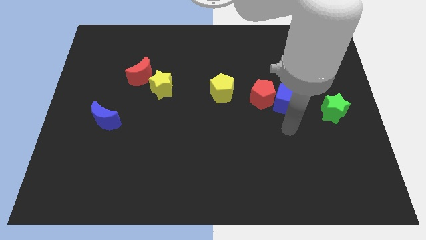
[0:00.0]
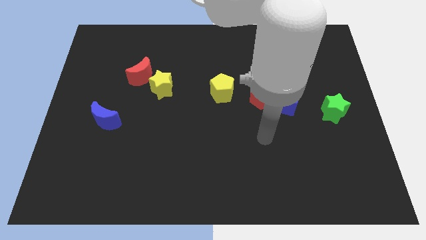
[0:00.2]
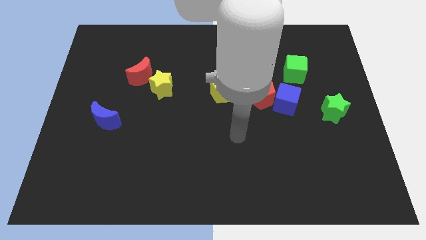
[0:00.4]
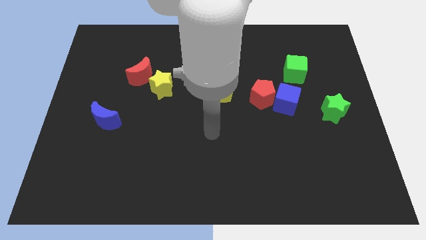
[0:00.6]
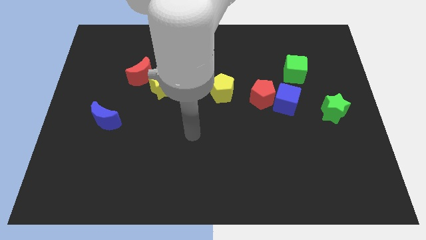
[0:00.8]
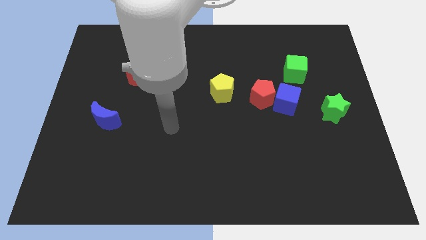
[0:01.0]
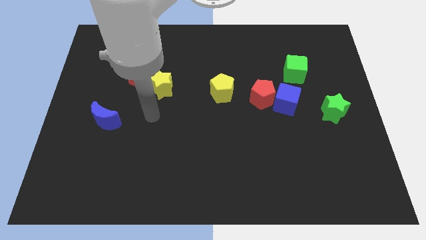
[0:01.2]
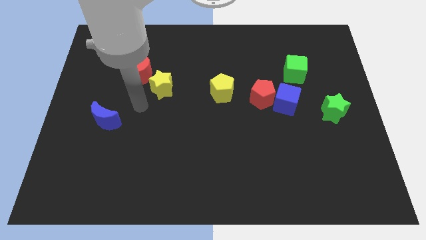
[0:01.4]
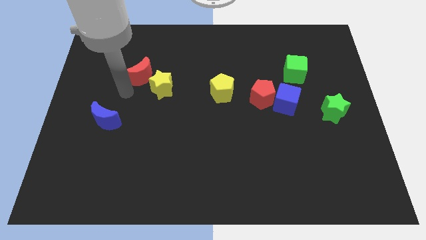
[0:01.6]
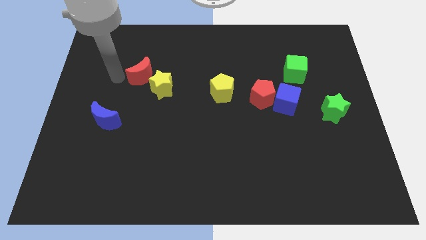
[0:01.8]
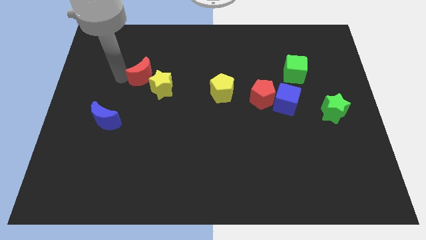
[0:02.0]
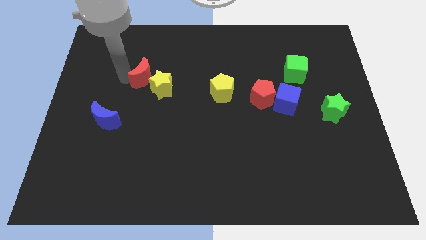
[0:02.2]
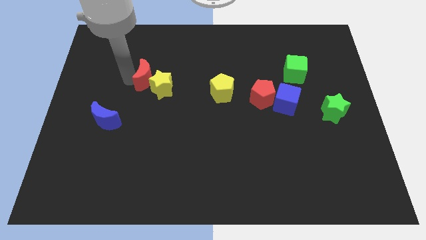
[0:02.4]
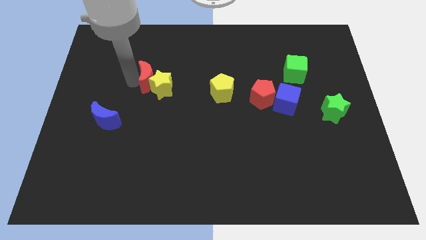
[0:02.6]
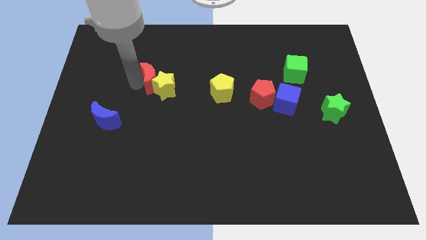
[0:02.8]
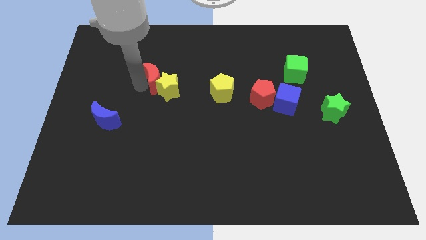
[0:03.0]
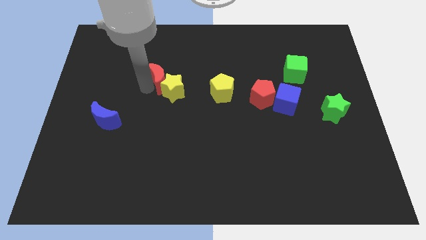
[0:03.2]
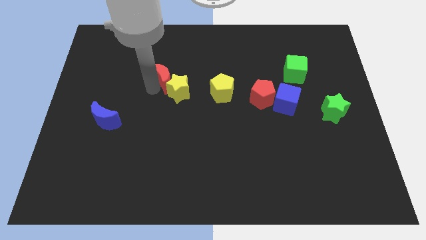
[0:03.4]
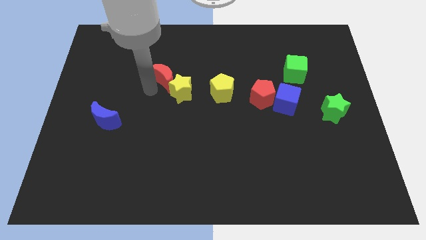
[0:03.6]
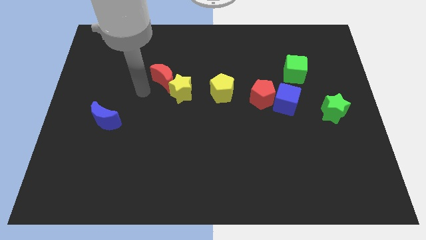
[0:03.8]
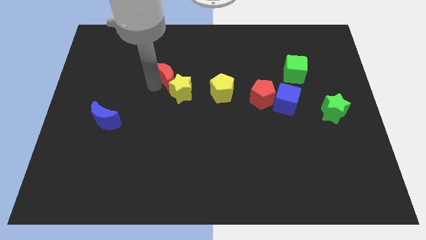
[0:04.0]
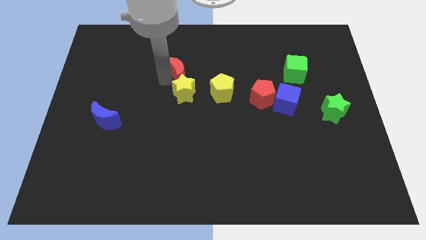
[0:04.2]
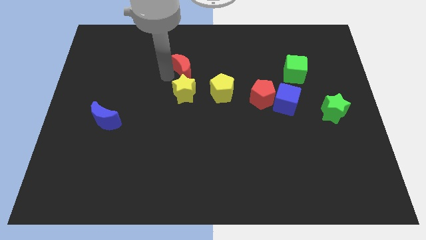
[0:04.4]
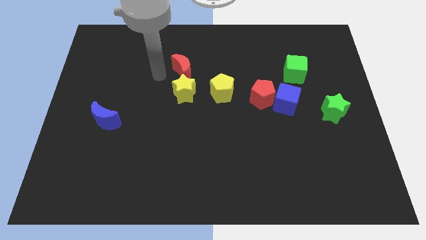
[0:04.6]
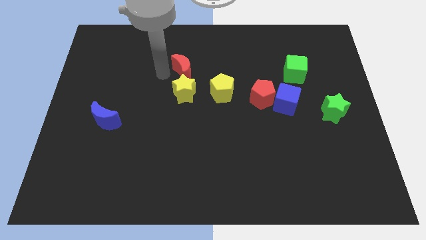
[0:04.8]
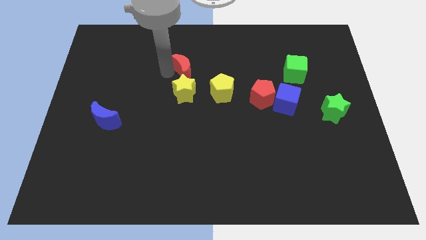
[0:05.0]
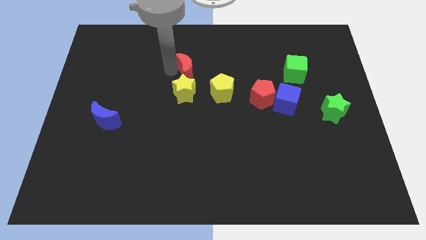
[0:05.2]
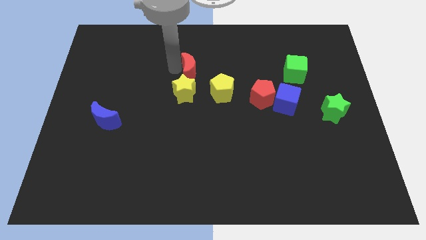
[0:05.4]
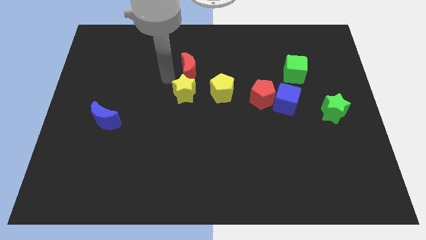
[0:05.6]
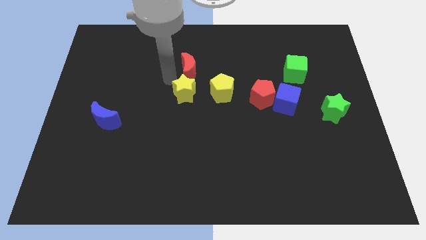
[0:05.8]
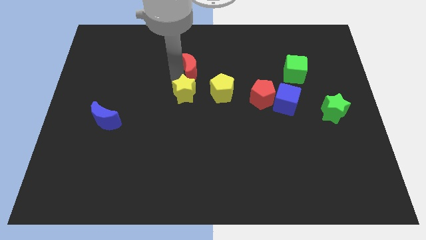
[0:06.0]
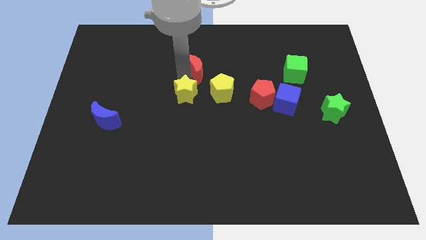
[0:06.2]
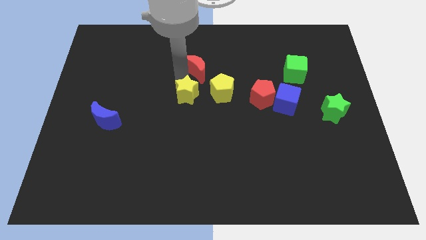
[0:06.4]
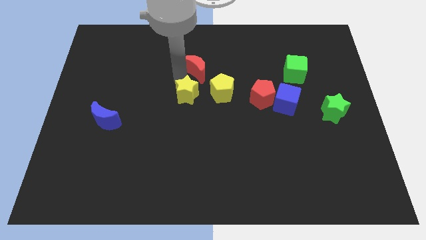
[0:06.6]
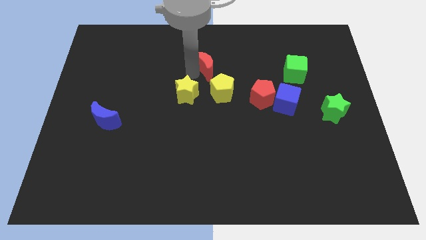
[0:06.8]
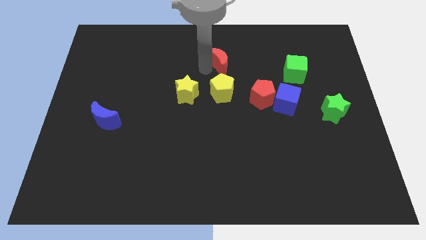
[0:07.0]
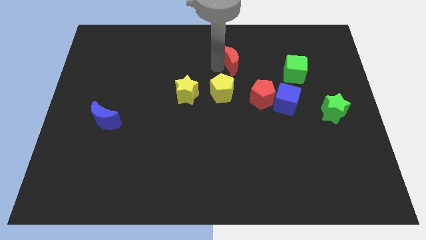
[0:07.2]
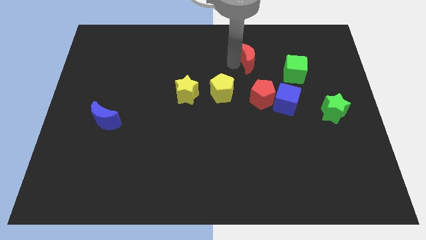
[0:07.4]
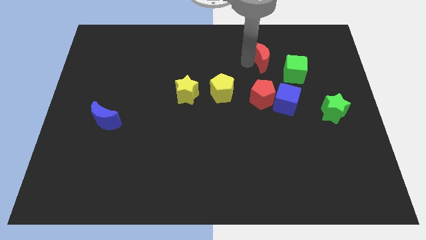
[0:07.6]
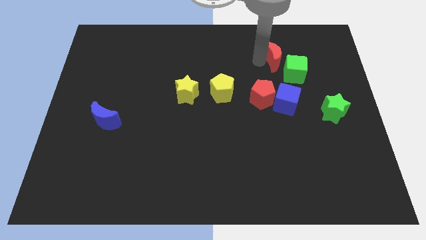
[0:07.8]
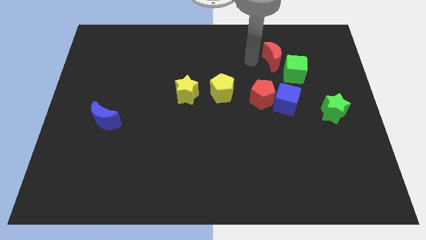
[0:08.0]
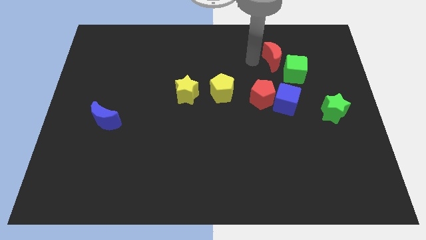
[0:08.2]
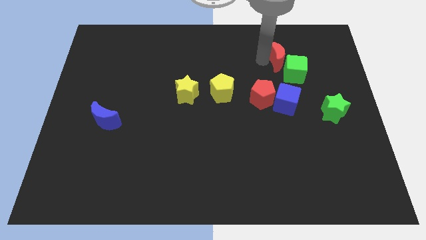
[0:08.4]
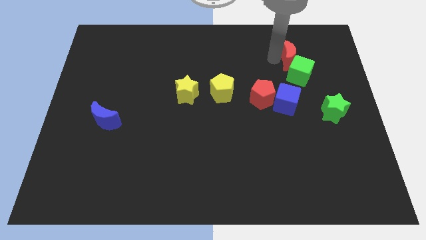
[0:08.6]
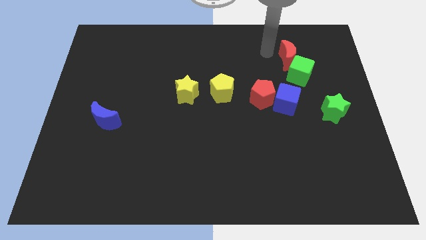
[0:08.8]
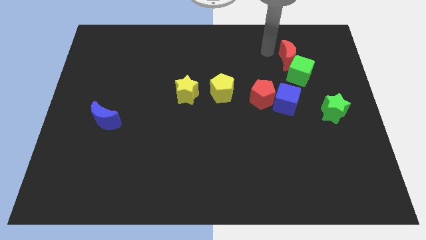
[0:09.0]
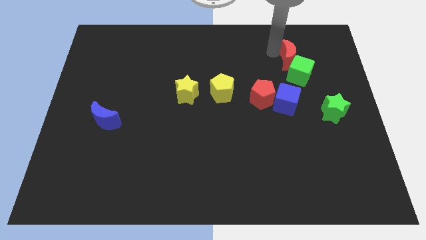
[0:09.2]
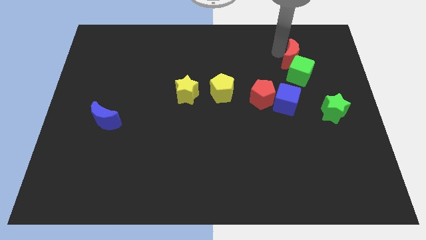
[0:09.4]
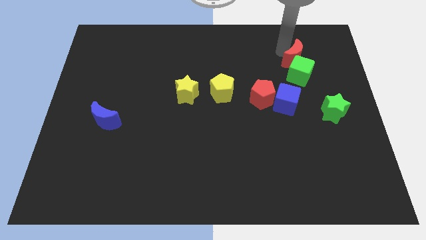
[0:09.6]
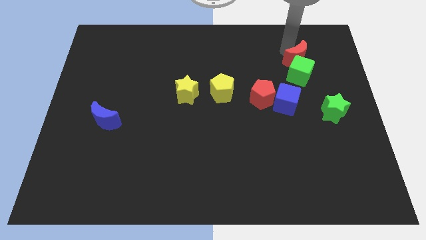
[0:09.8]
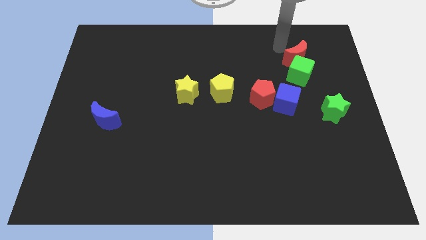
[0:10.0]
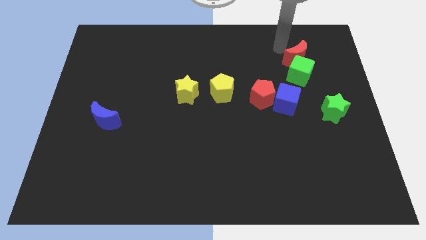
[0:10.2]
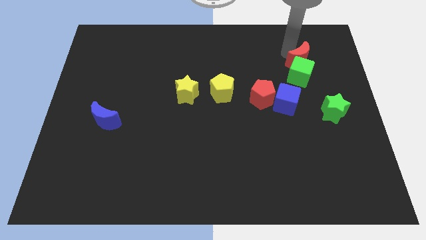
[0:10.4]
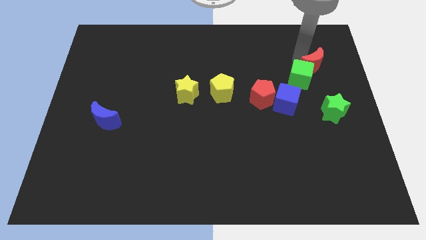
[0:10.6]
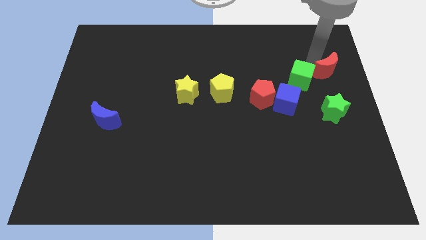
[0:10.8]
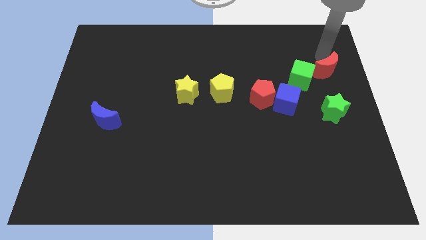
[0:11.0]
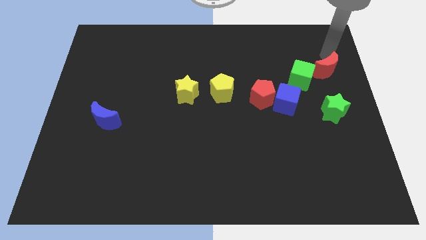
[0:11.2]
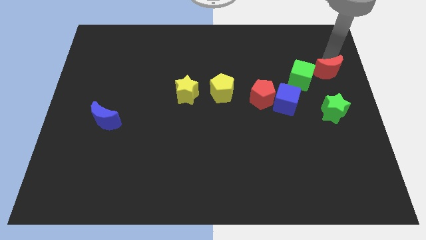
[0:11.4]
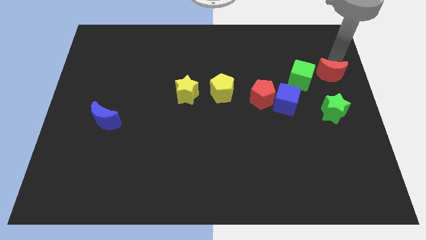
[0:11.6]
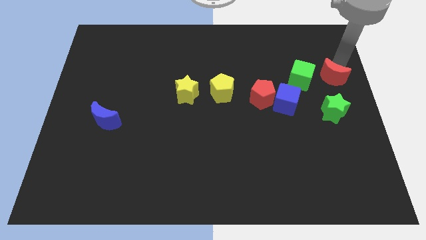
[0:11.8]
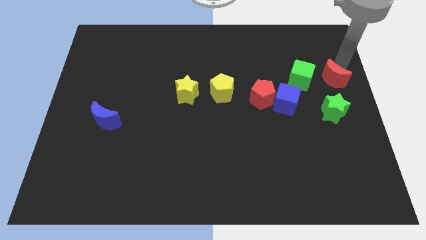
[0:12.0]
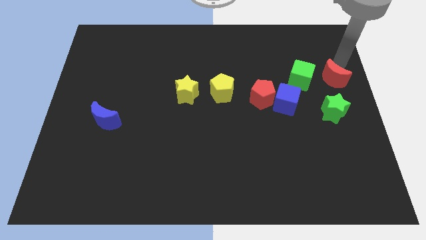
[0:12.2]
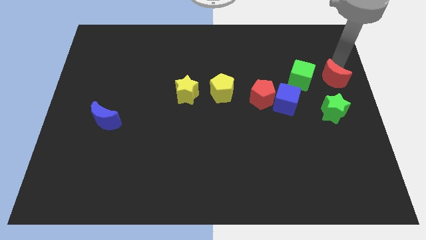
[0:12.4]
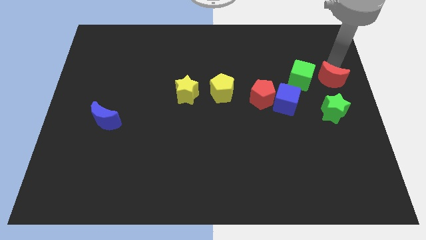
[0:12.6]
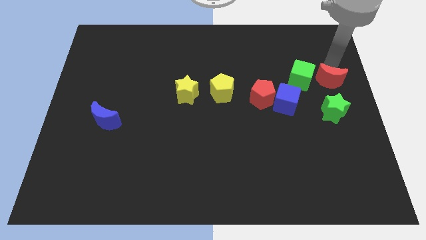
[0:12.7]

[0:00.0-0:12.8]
move the red moon to the bottom right side of the green cube
